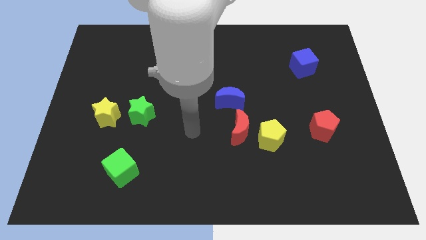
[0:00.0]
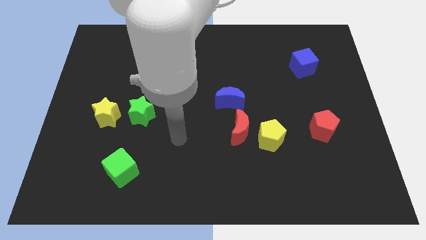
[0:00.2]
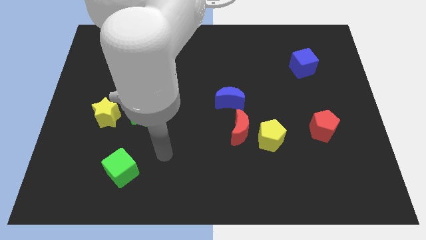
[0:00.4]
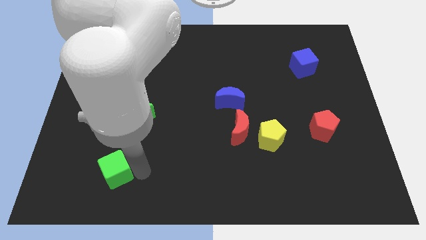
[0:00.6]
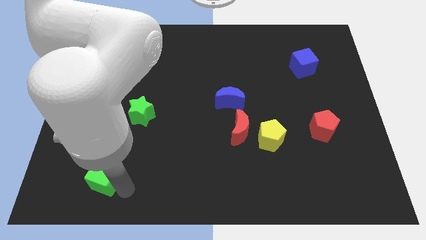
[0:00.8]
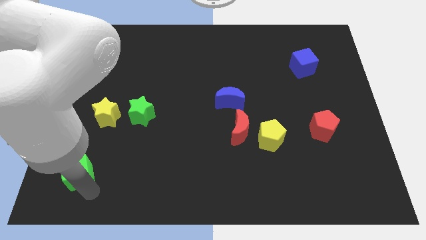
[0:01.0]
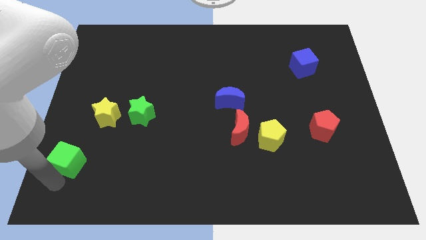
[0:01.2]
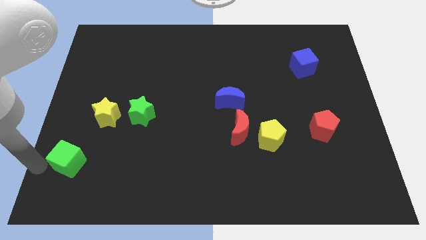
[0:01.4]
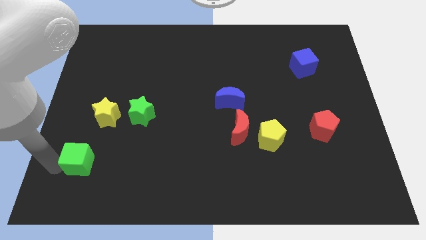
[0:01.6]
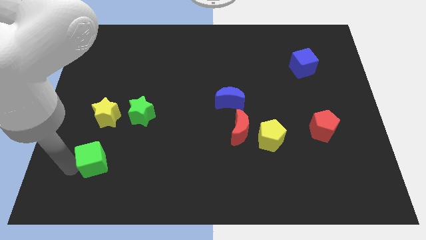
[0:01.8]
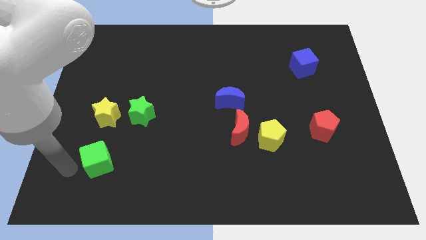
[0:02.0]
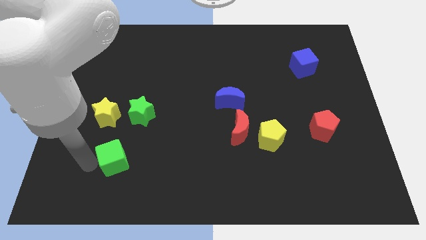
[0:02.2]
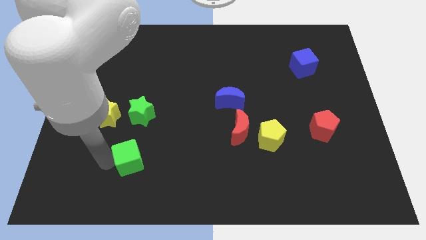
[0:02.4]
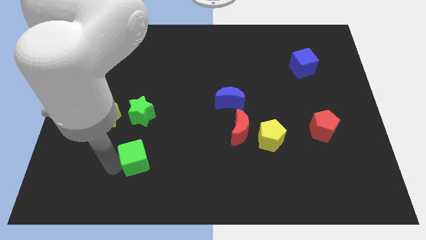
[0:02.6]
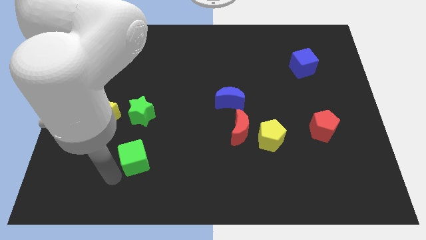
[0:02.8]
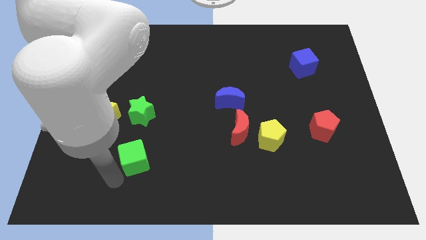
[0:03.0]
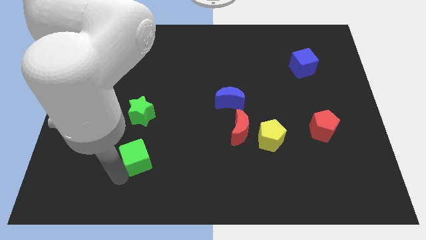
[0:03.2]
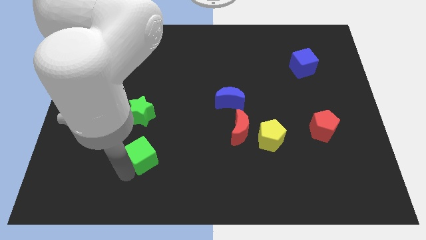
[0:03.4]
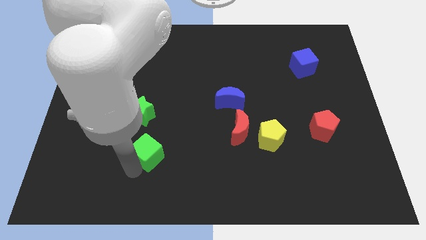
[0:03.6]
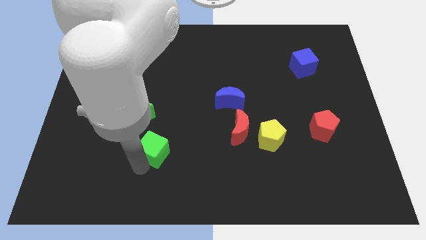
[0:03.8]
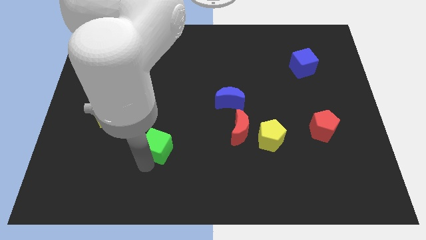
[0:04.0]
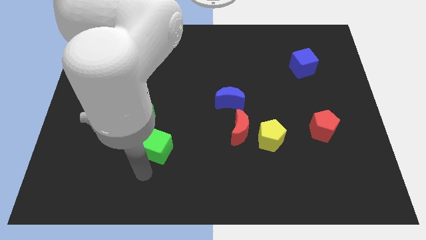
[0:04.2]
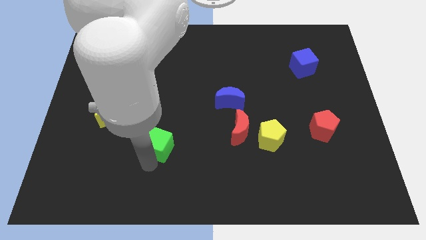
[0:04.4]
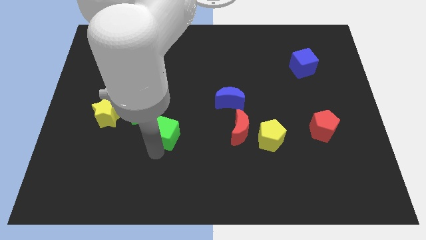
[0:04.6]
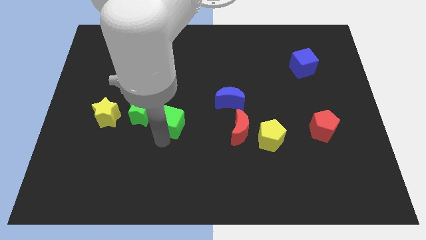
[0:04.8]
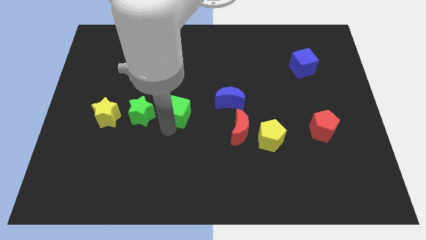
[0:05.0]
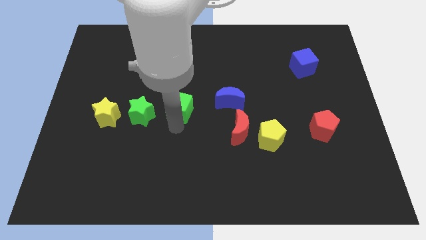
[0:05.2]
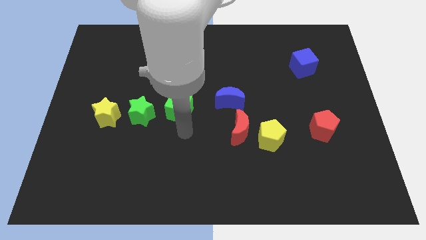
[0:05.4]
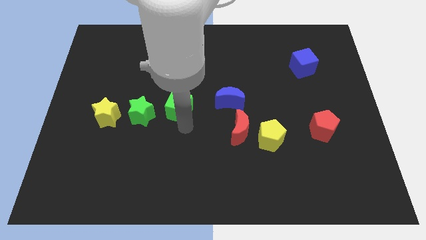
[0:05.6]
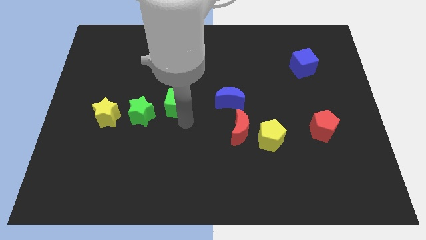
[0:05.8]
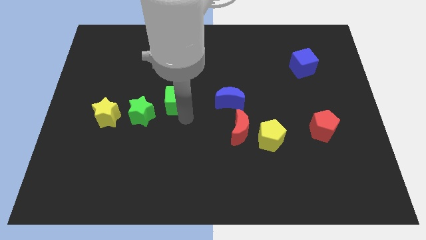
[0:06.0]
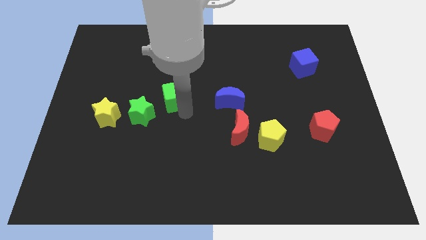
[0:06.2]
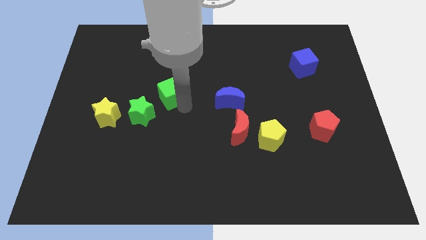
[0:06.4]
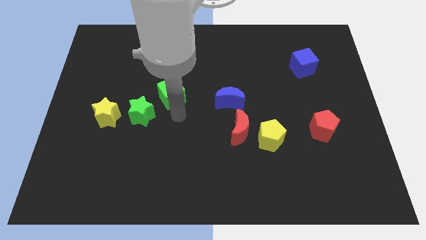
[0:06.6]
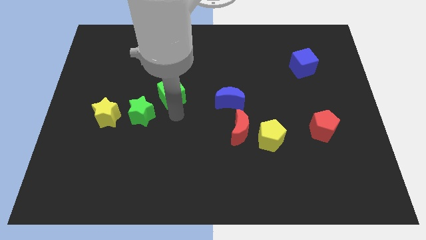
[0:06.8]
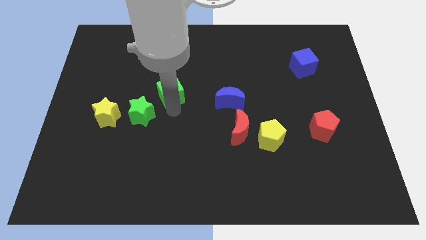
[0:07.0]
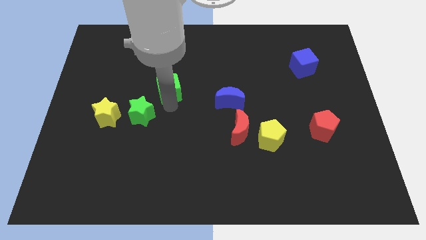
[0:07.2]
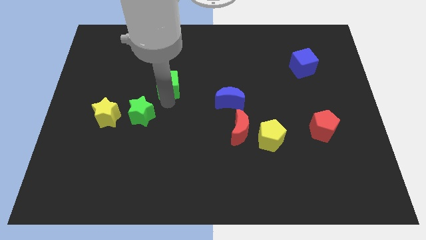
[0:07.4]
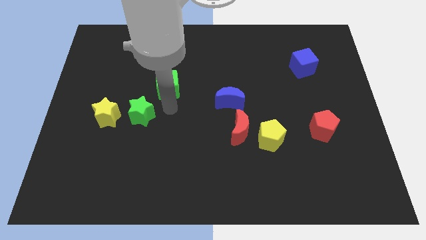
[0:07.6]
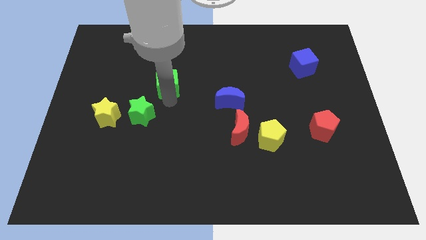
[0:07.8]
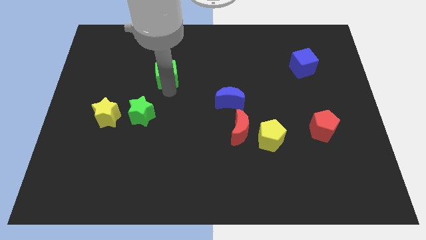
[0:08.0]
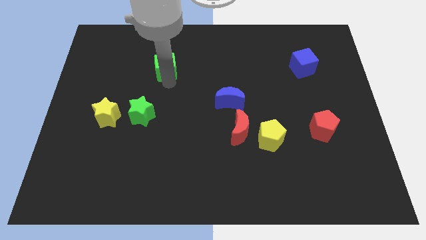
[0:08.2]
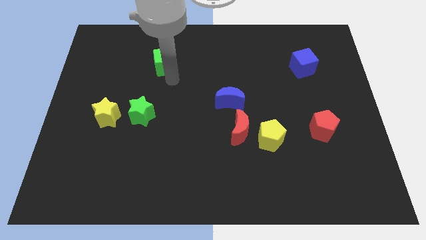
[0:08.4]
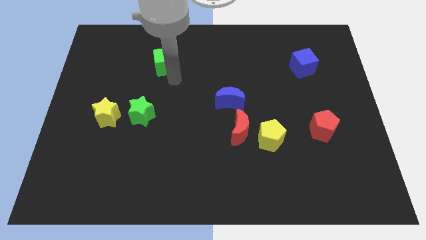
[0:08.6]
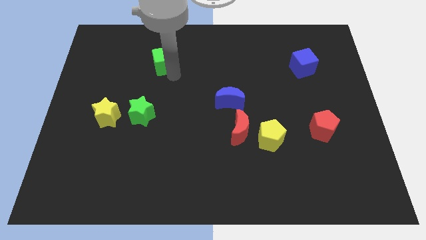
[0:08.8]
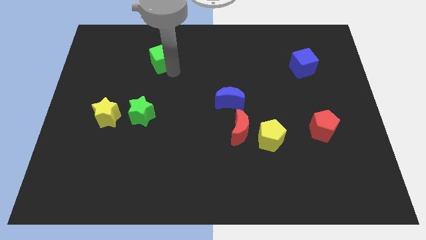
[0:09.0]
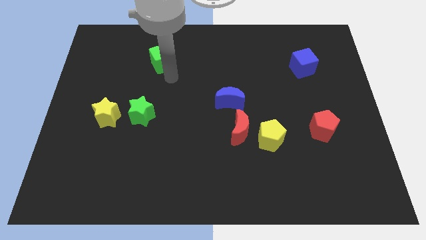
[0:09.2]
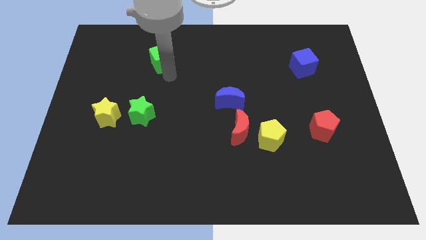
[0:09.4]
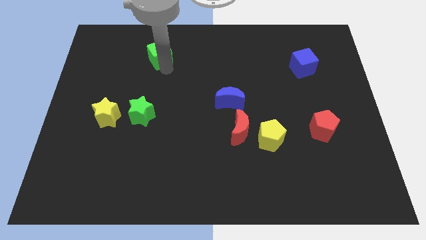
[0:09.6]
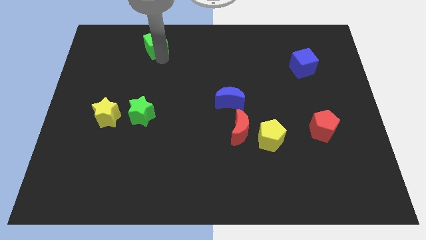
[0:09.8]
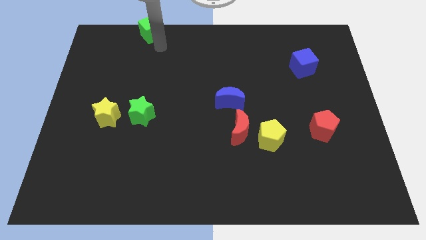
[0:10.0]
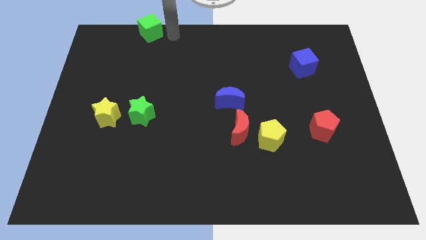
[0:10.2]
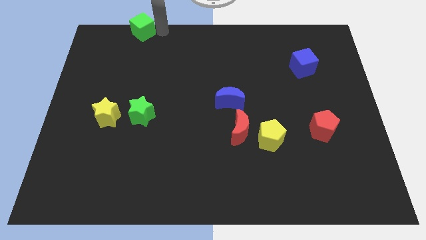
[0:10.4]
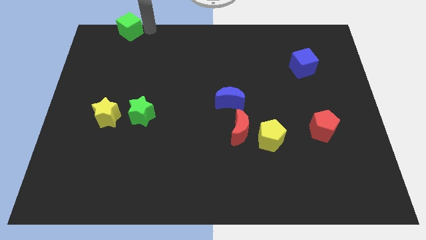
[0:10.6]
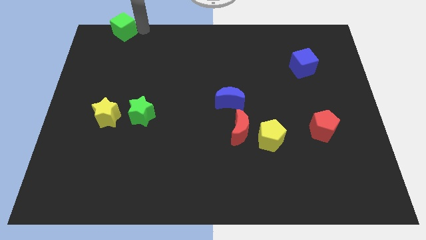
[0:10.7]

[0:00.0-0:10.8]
put the green cube to the top left of the board

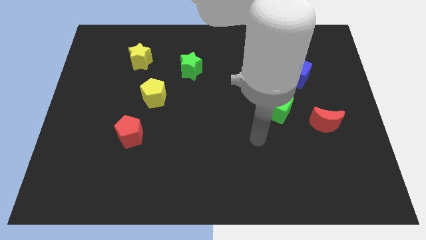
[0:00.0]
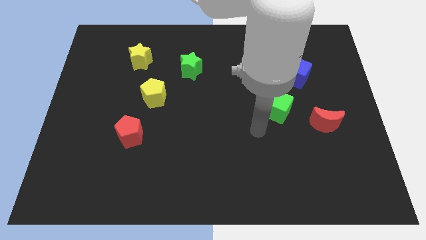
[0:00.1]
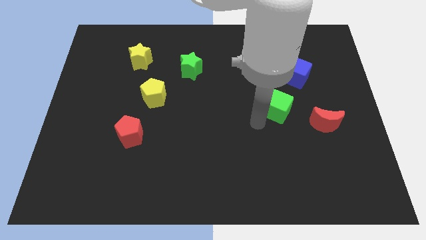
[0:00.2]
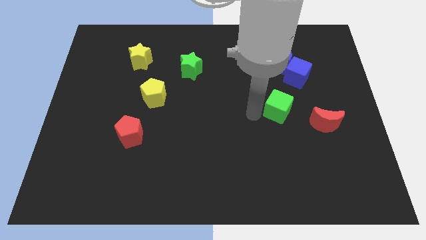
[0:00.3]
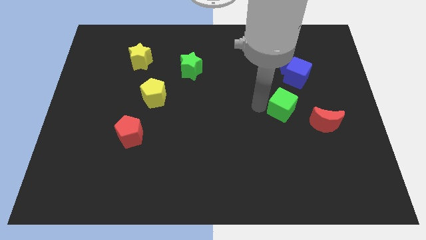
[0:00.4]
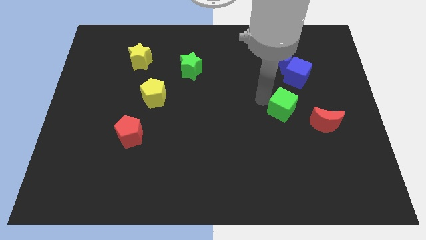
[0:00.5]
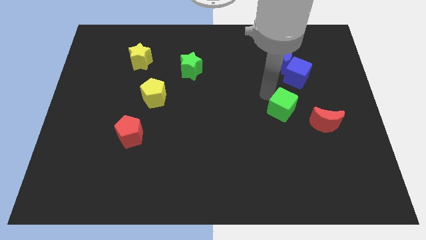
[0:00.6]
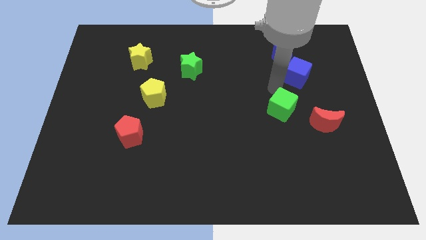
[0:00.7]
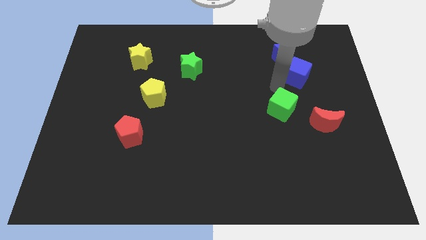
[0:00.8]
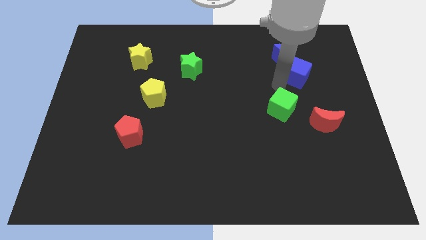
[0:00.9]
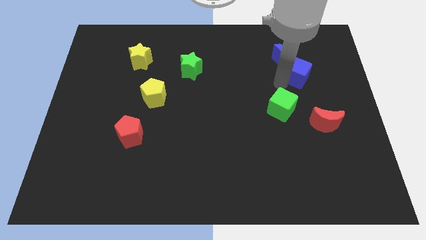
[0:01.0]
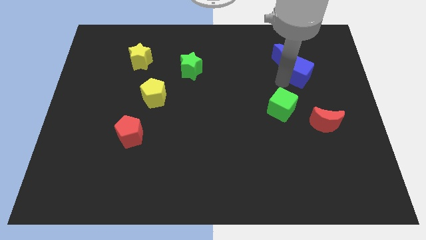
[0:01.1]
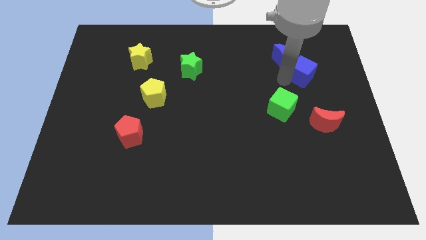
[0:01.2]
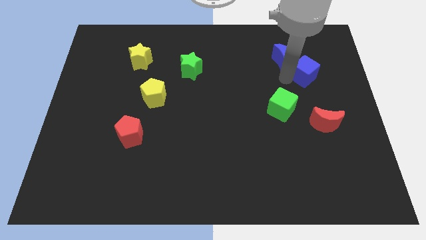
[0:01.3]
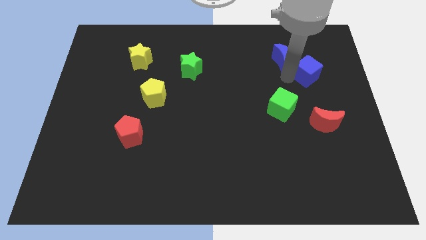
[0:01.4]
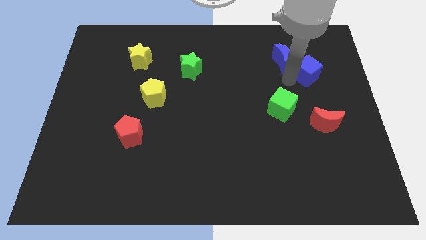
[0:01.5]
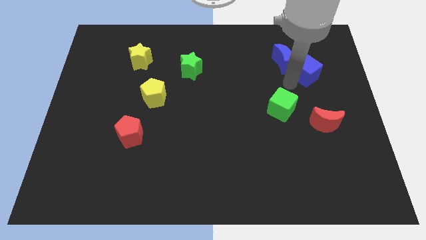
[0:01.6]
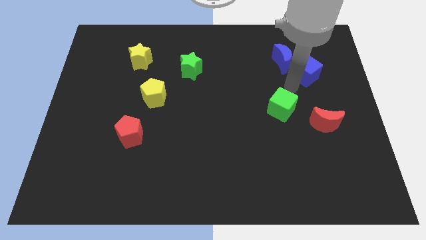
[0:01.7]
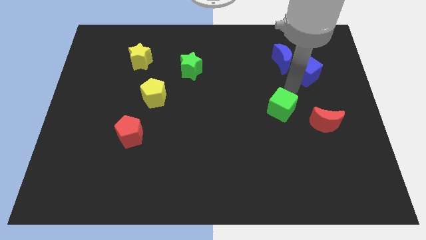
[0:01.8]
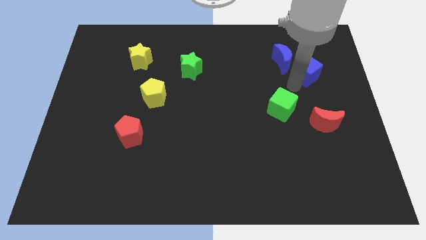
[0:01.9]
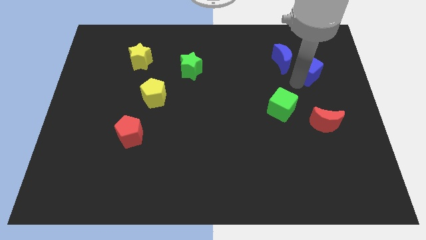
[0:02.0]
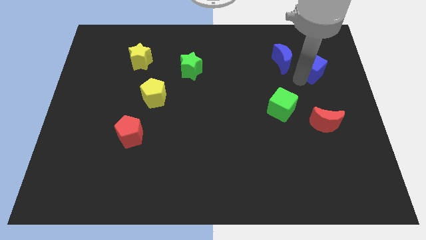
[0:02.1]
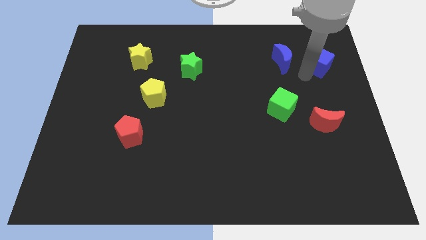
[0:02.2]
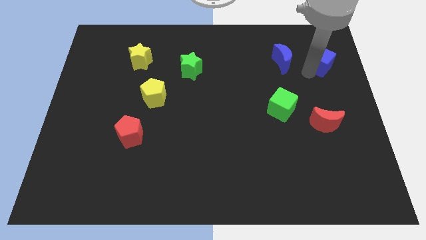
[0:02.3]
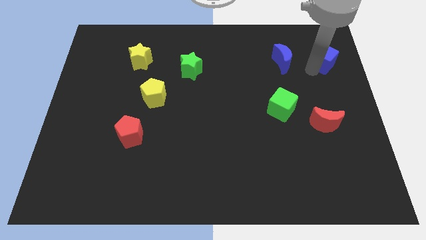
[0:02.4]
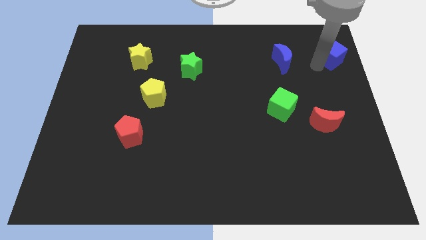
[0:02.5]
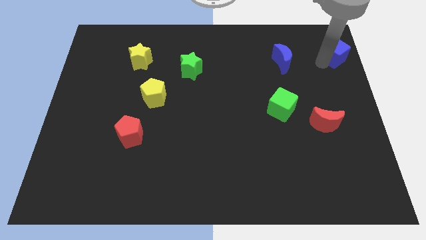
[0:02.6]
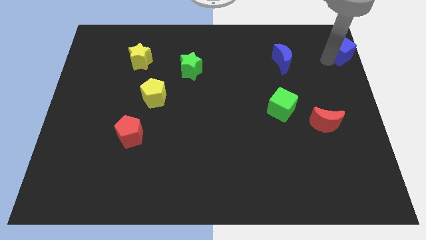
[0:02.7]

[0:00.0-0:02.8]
put the blue cube to the top right
